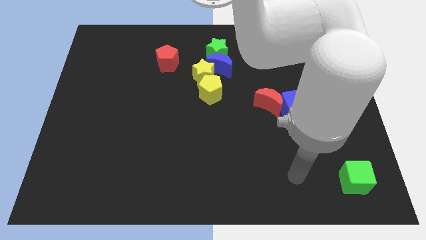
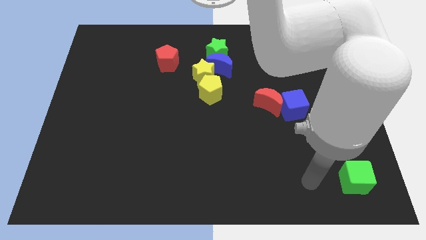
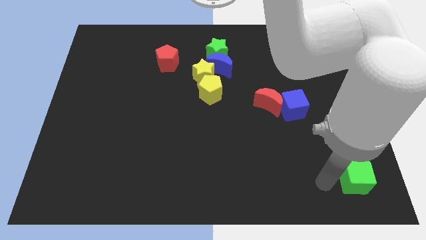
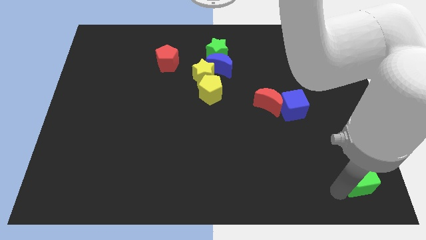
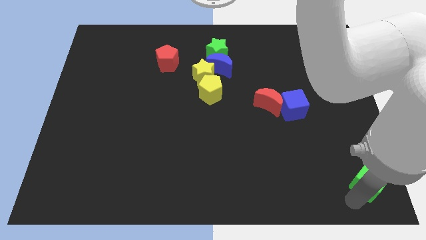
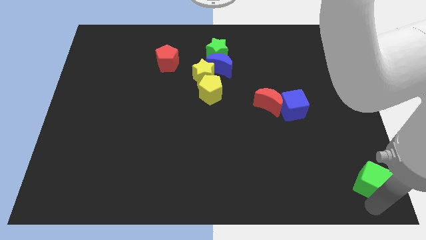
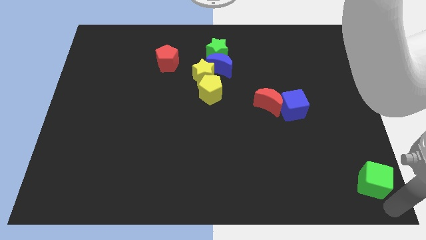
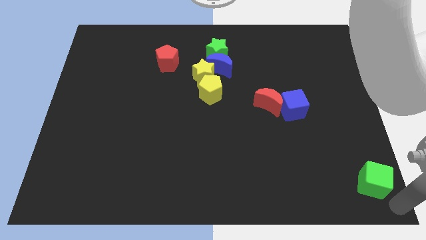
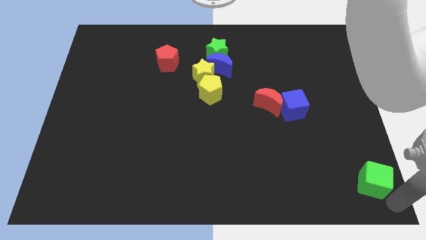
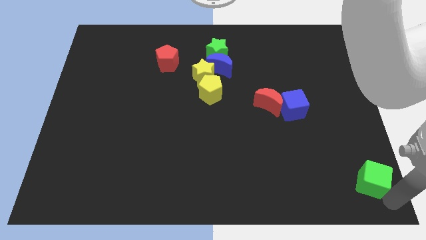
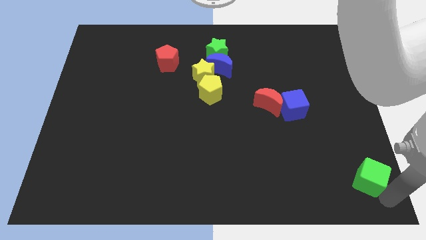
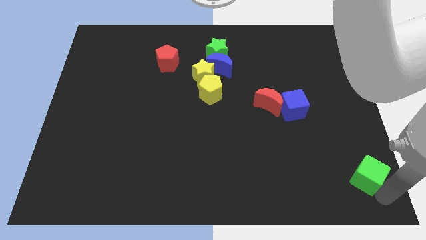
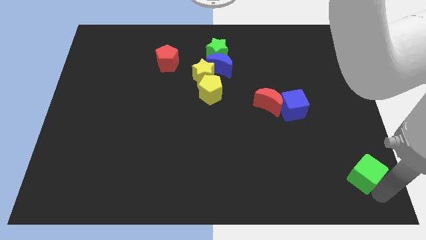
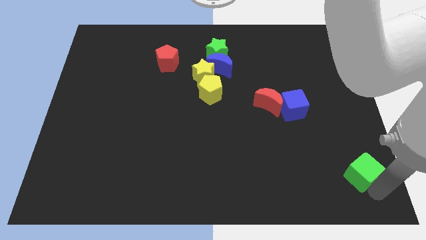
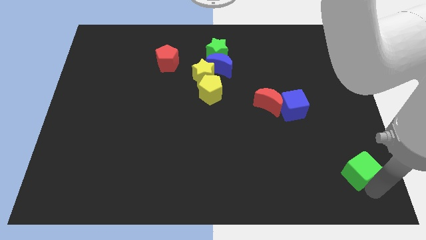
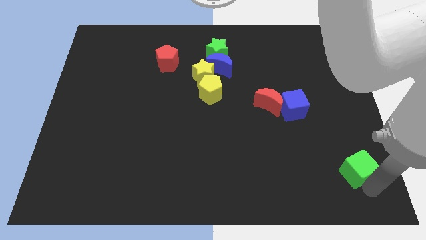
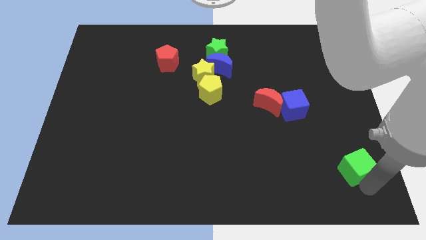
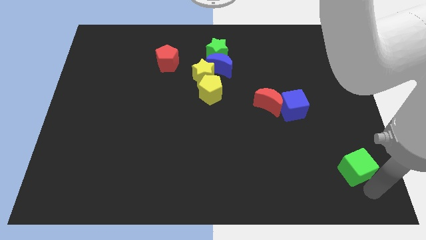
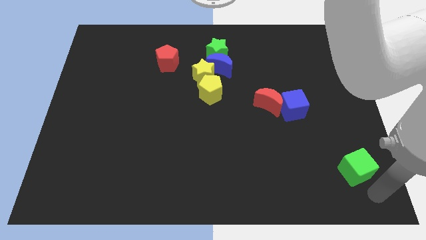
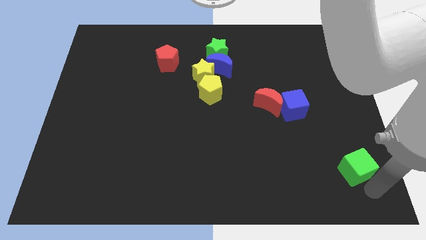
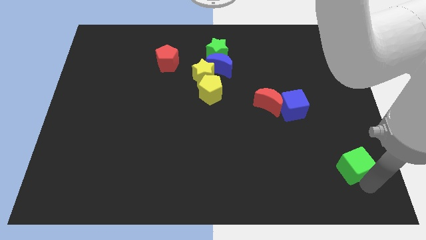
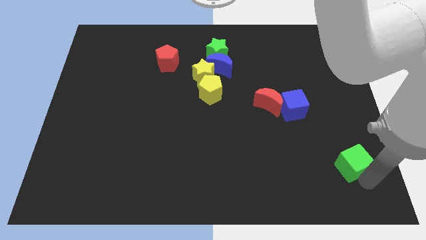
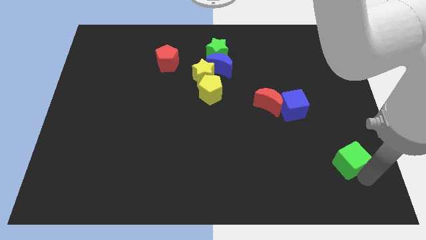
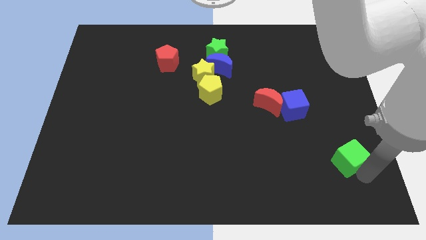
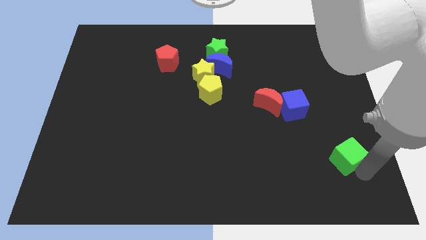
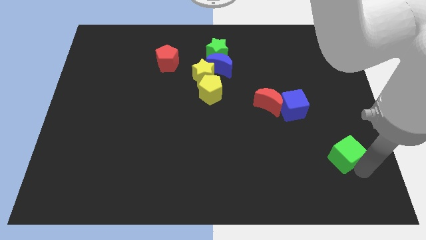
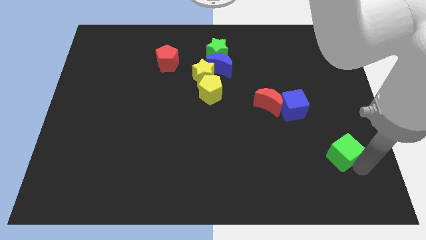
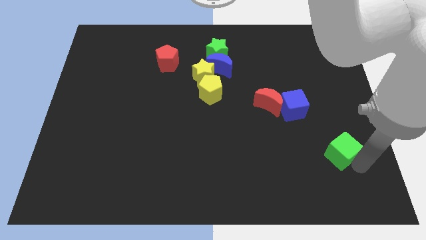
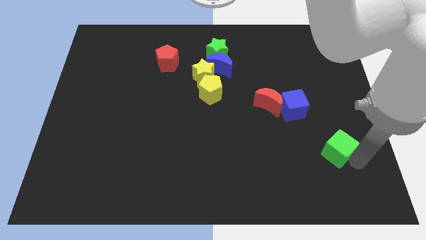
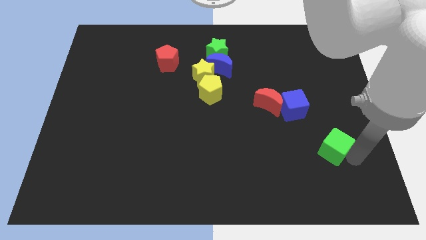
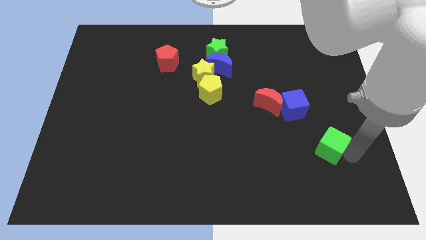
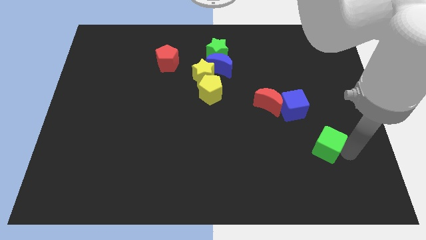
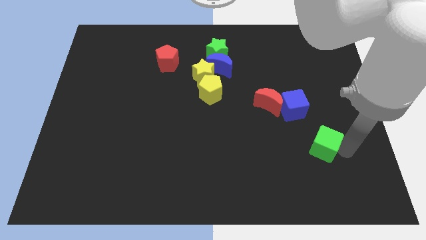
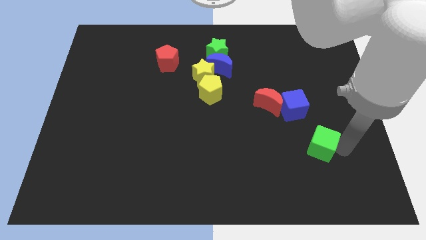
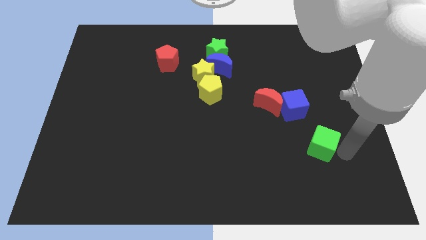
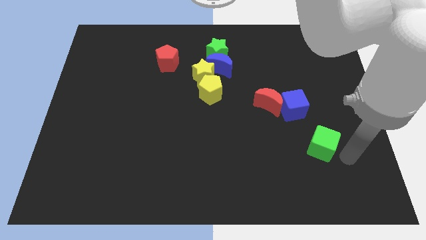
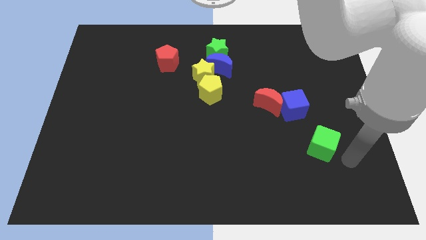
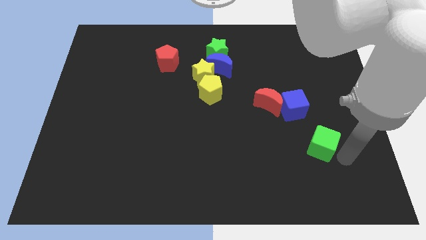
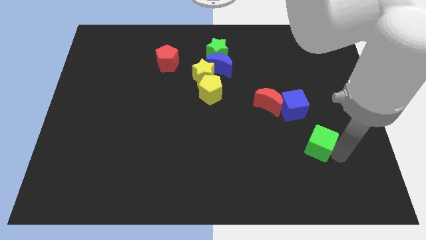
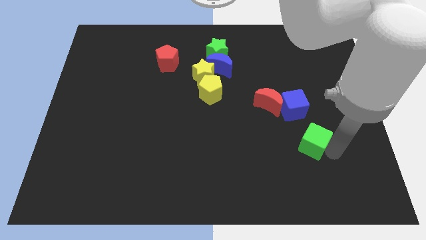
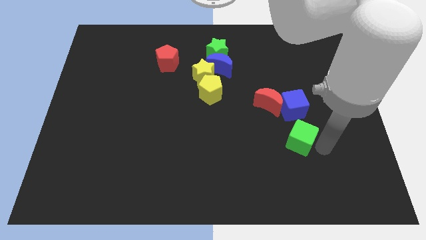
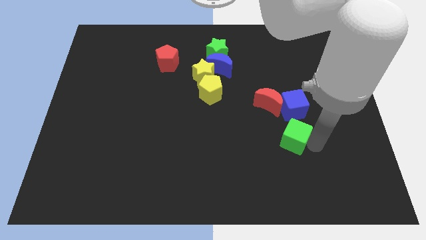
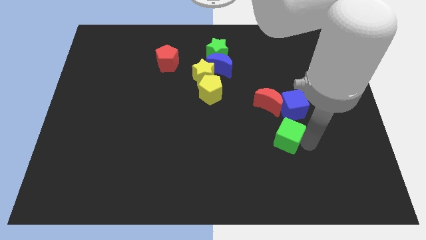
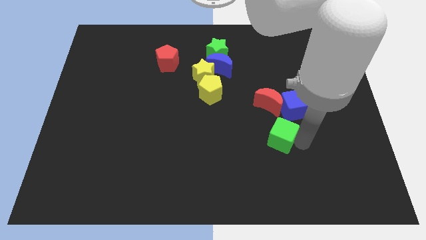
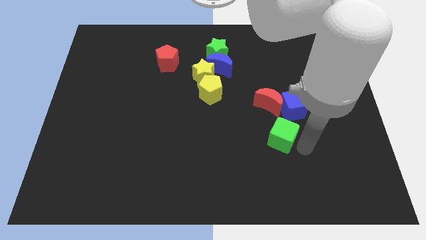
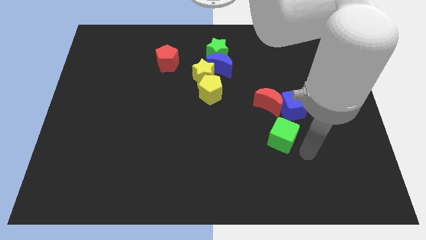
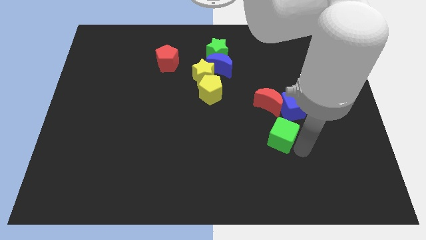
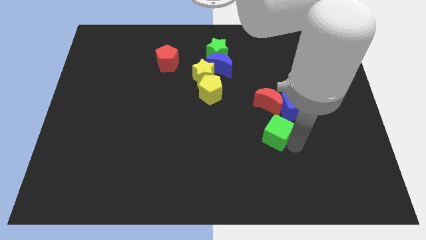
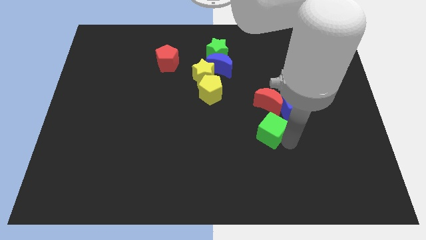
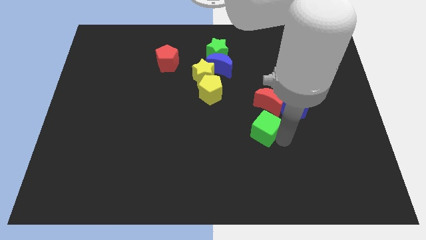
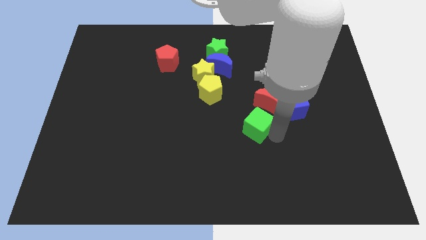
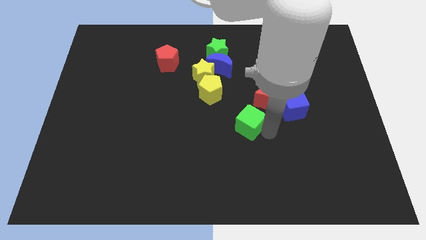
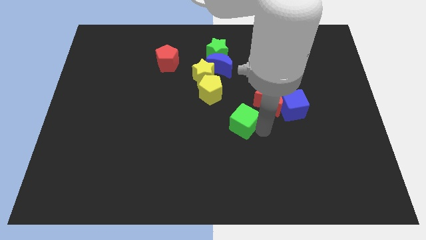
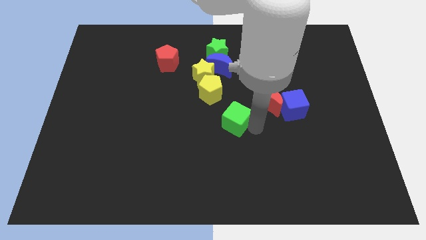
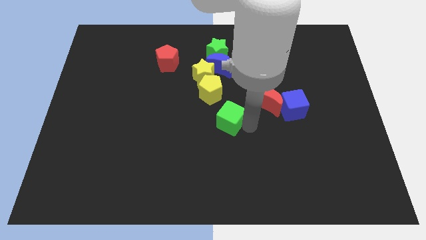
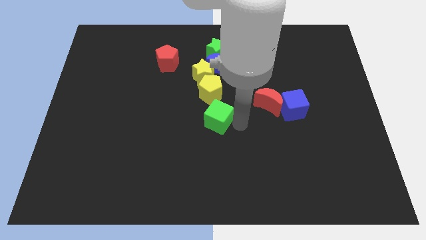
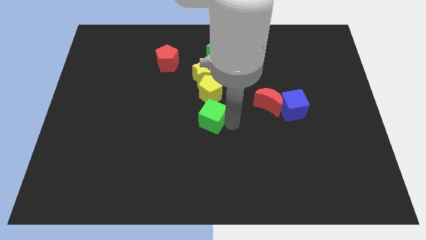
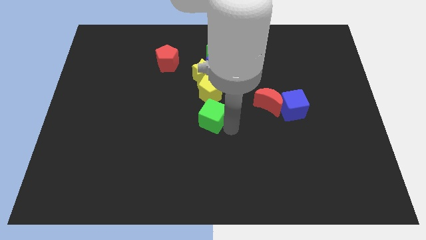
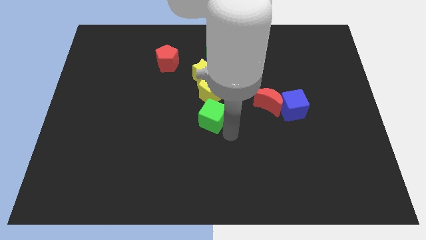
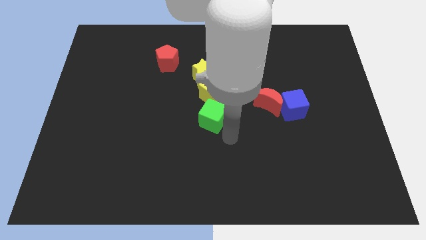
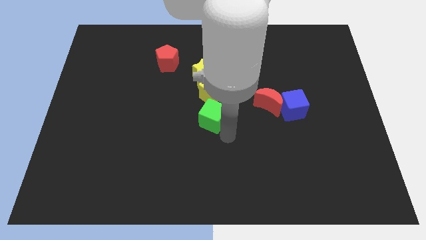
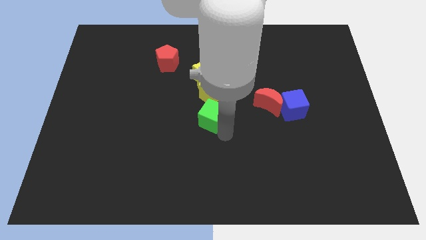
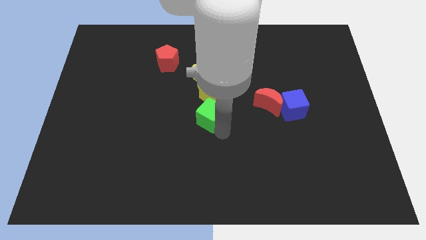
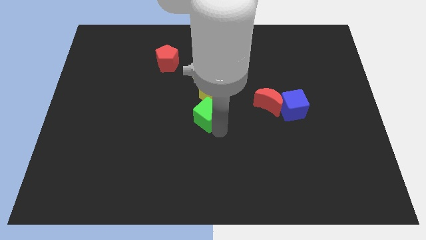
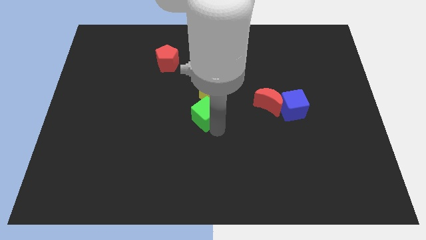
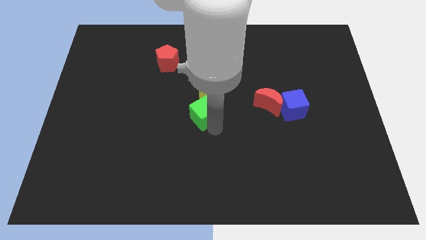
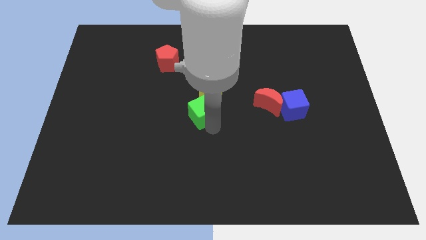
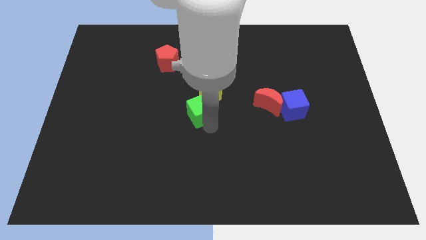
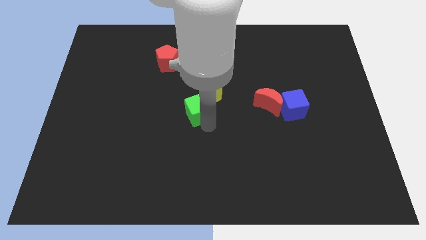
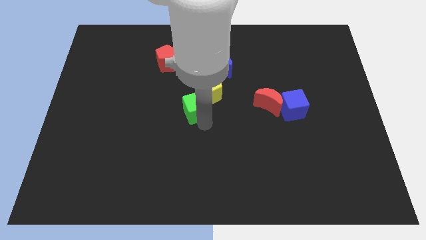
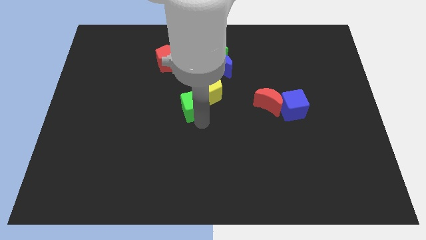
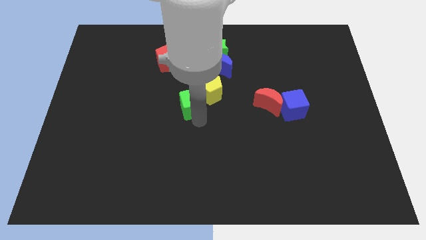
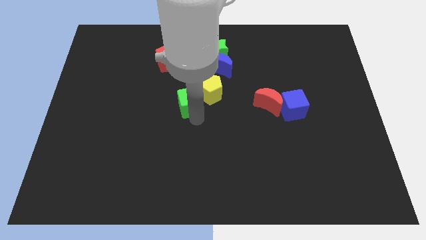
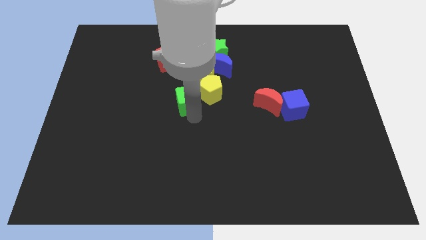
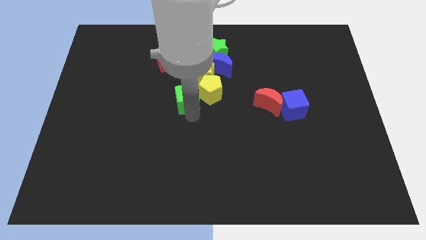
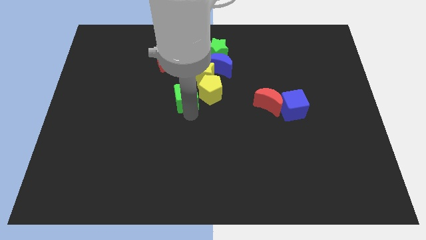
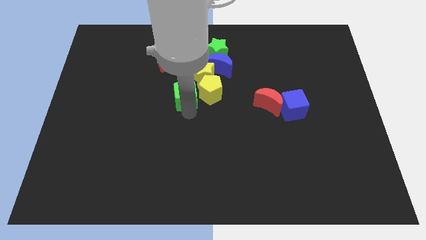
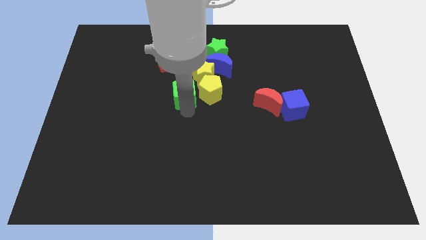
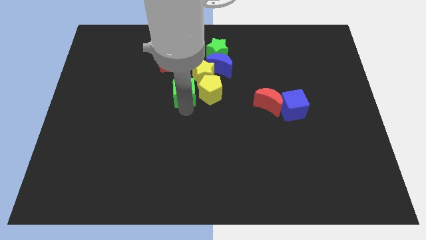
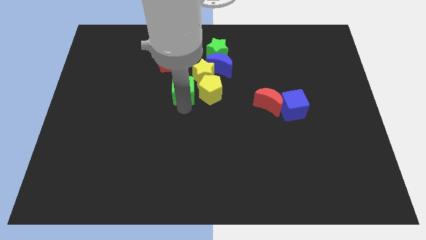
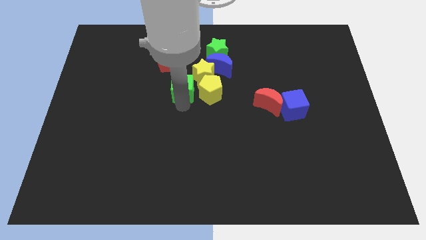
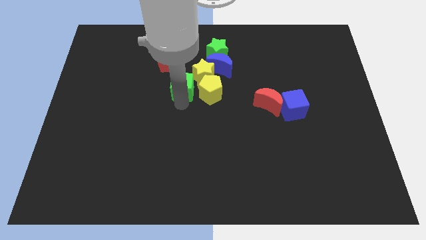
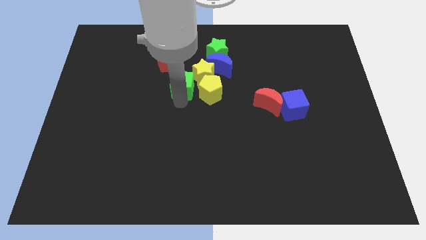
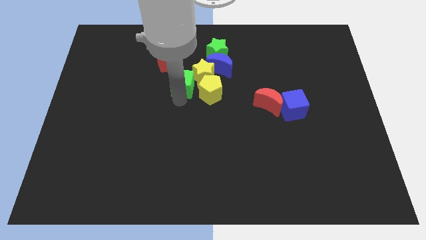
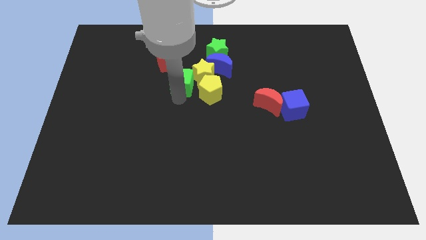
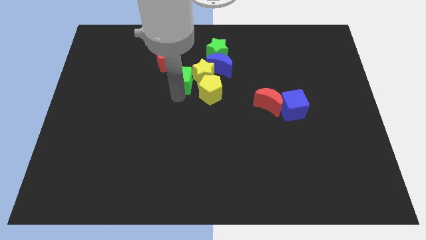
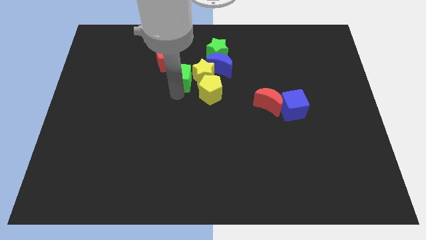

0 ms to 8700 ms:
push the green cube to the bottom left side of the green star
